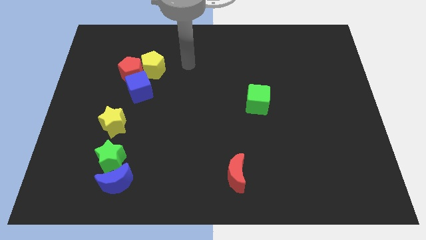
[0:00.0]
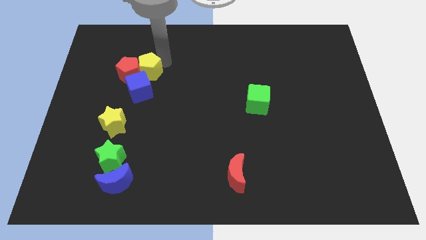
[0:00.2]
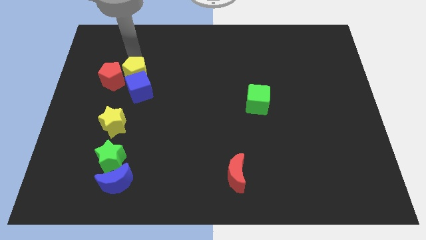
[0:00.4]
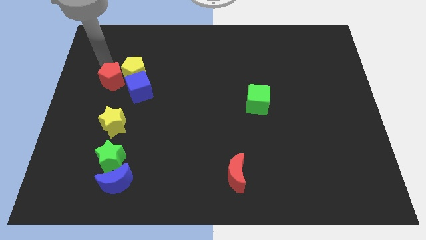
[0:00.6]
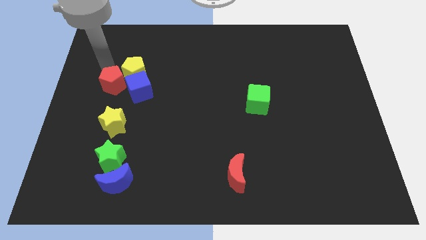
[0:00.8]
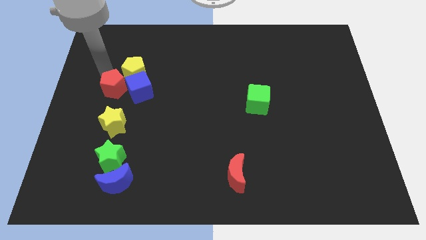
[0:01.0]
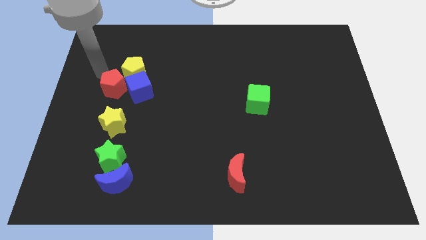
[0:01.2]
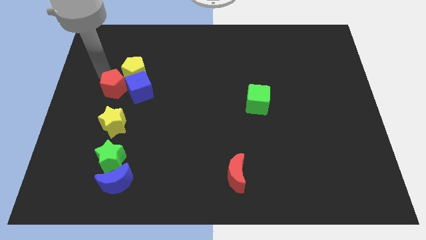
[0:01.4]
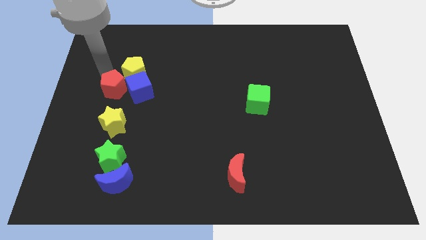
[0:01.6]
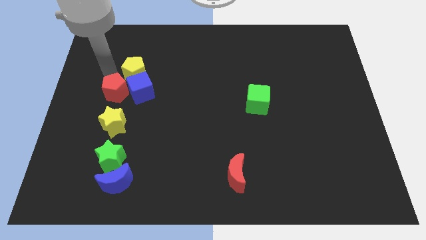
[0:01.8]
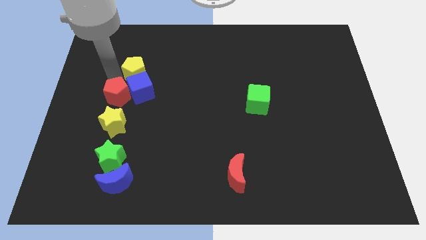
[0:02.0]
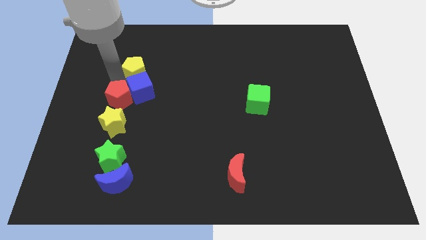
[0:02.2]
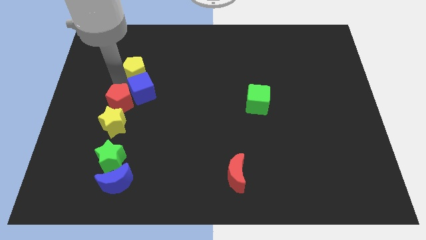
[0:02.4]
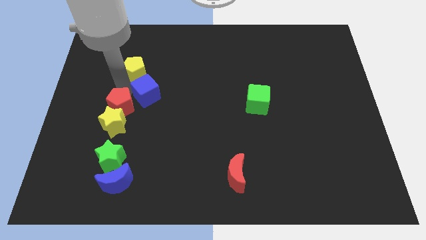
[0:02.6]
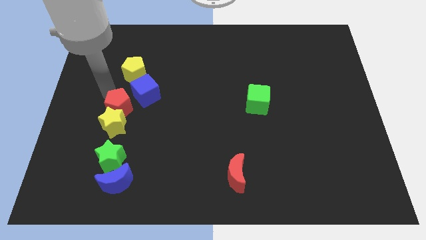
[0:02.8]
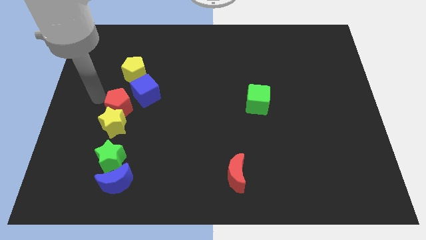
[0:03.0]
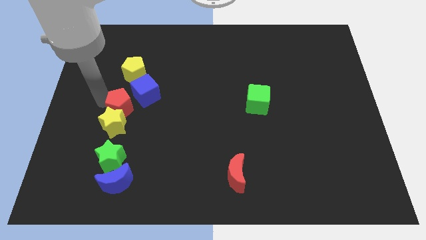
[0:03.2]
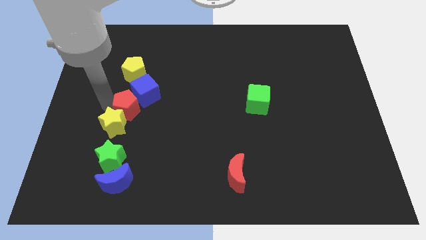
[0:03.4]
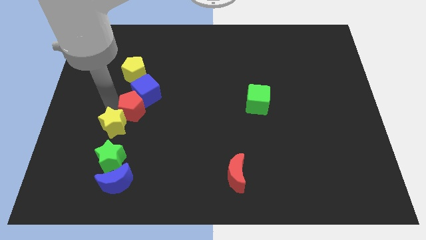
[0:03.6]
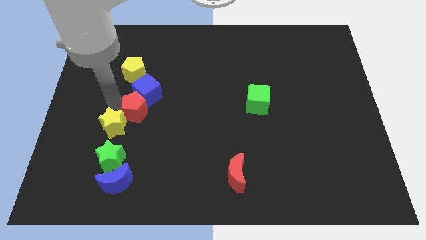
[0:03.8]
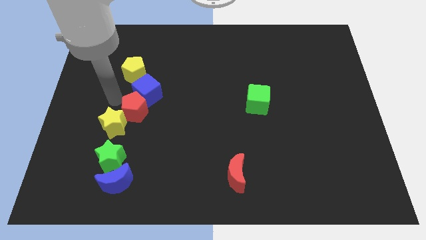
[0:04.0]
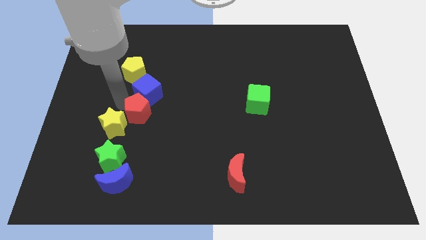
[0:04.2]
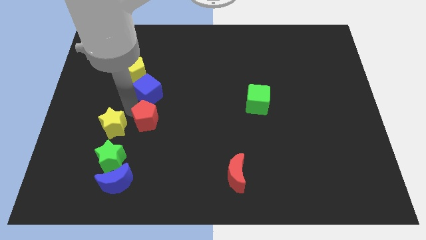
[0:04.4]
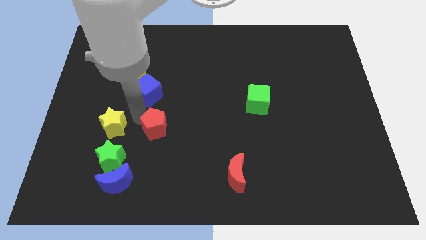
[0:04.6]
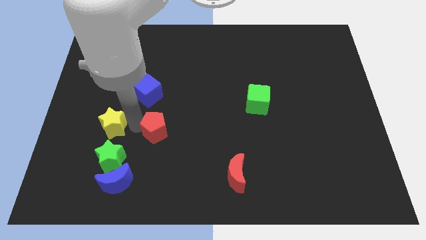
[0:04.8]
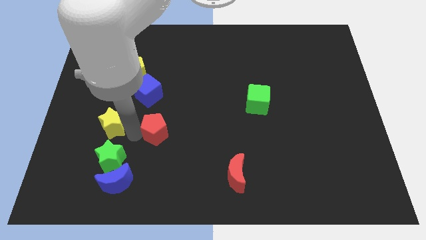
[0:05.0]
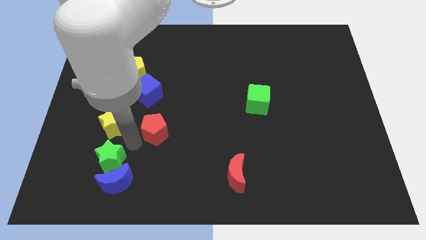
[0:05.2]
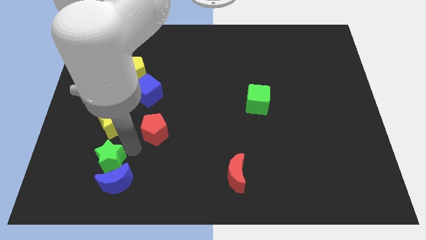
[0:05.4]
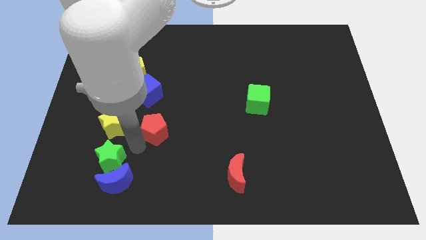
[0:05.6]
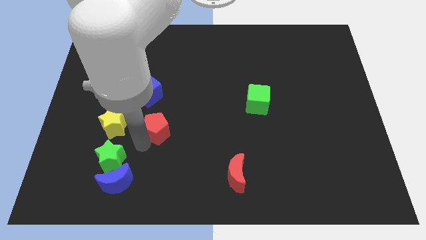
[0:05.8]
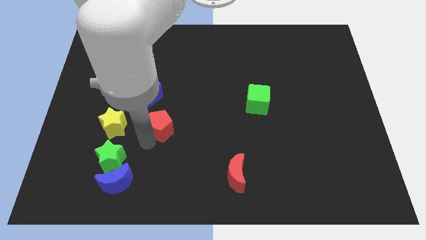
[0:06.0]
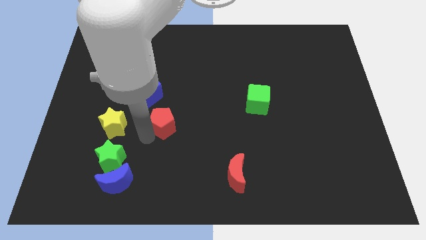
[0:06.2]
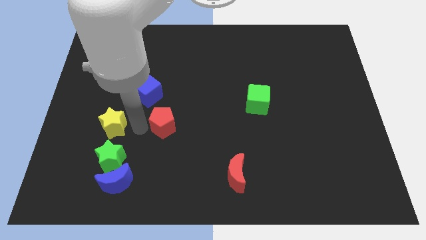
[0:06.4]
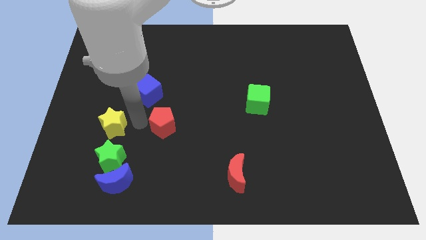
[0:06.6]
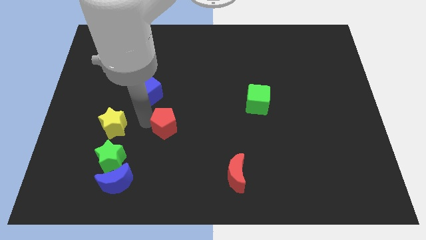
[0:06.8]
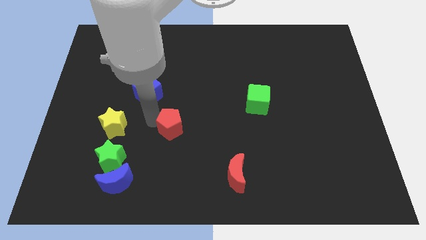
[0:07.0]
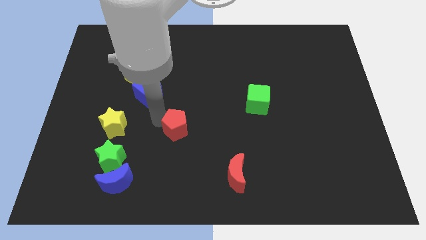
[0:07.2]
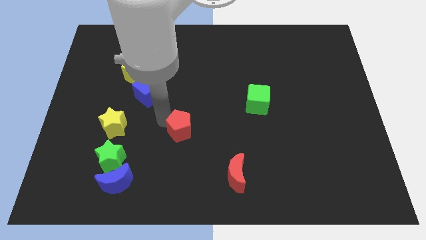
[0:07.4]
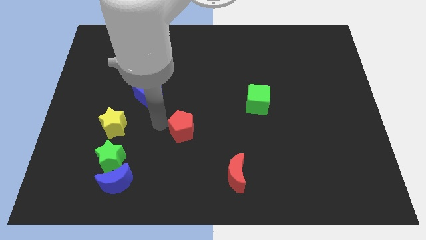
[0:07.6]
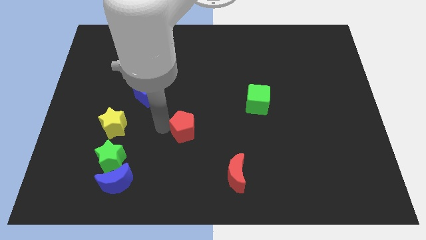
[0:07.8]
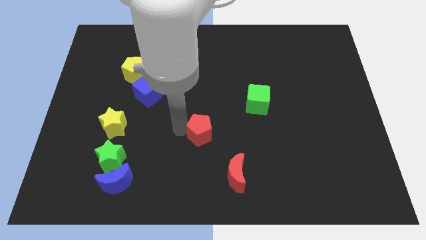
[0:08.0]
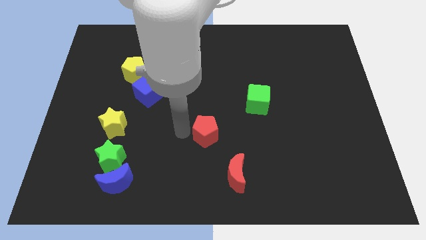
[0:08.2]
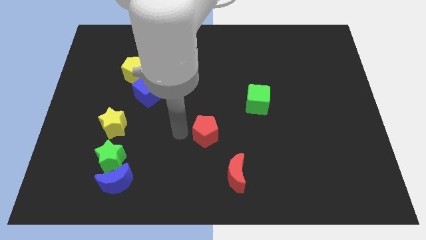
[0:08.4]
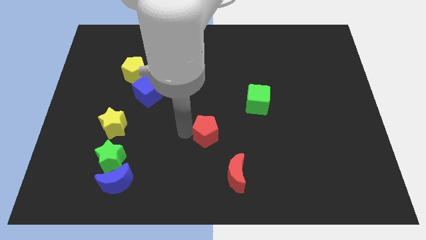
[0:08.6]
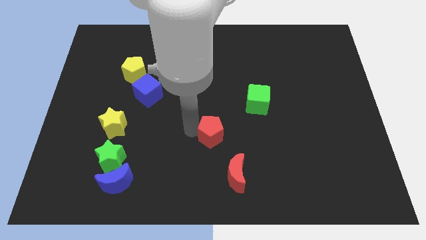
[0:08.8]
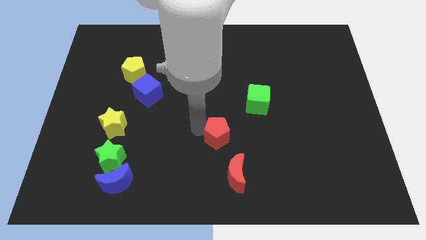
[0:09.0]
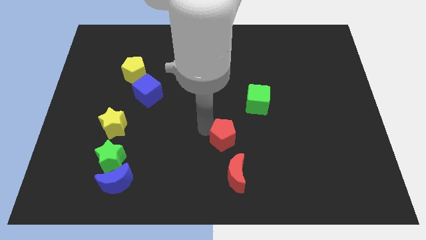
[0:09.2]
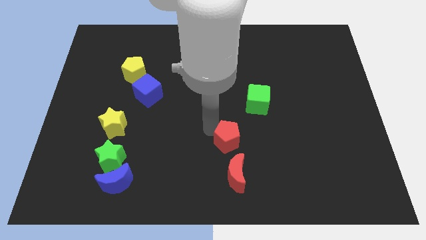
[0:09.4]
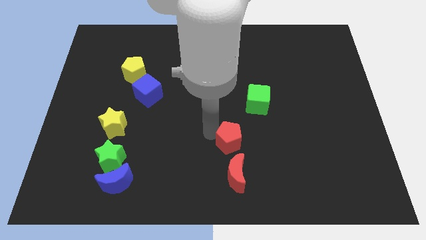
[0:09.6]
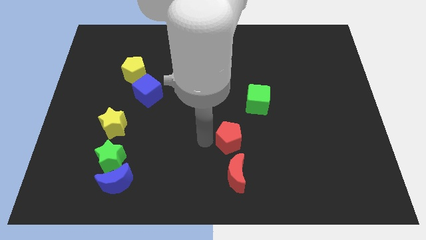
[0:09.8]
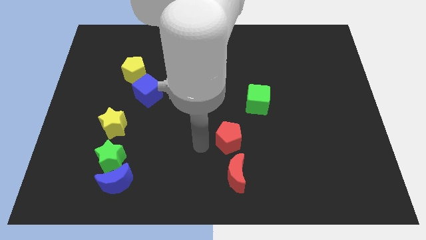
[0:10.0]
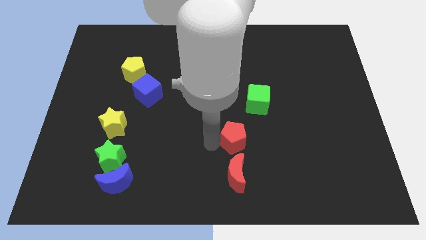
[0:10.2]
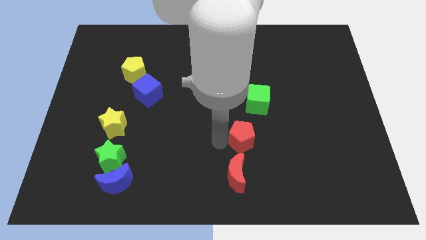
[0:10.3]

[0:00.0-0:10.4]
move the red pentagon to the bottom side of the green cube

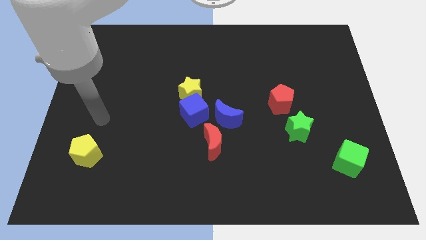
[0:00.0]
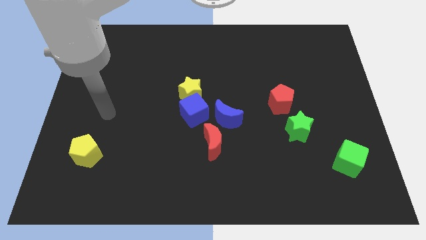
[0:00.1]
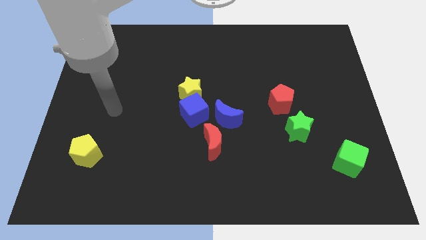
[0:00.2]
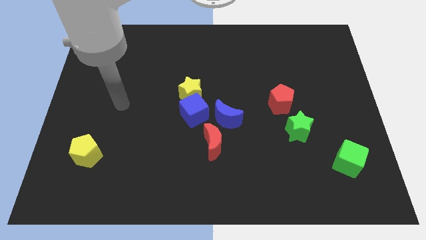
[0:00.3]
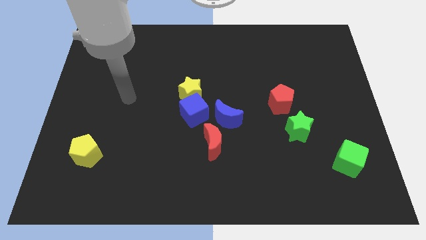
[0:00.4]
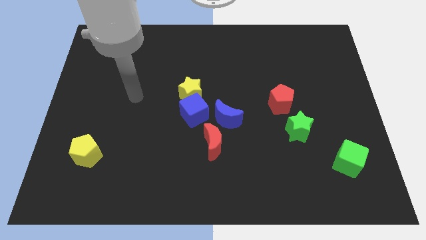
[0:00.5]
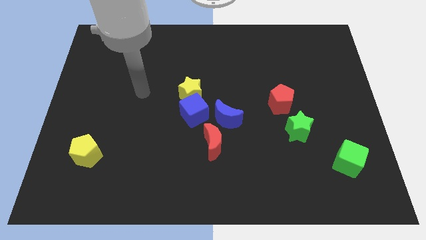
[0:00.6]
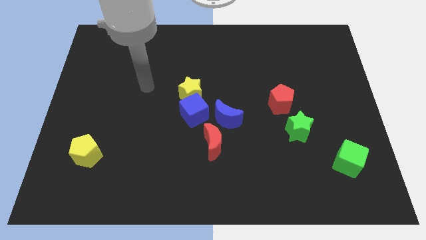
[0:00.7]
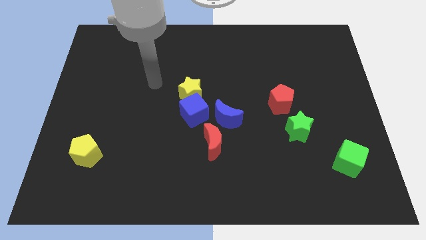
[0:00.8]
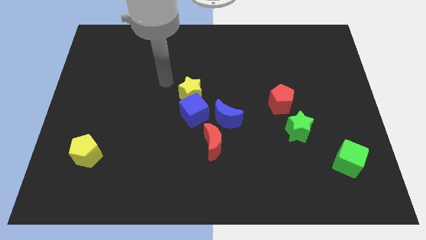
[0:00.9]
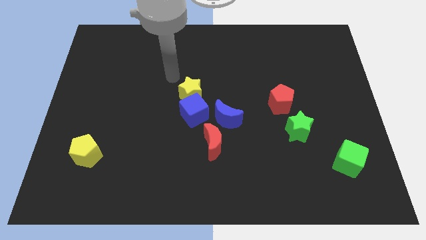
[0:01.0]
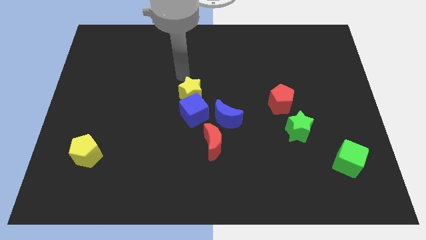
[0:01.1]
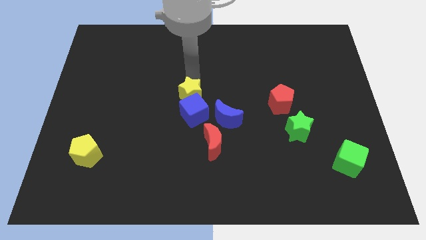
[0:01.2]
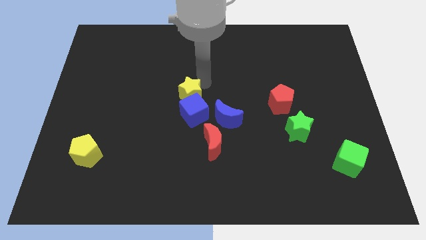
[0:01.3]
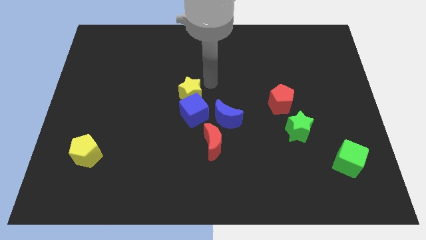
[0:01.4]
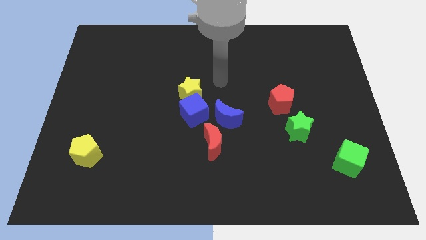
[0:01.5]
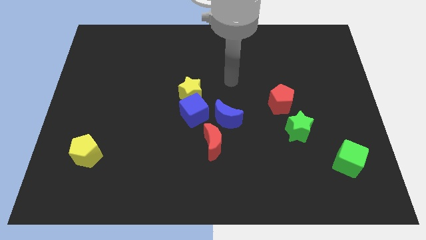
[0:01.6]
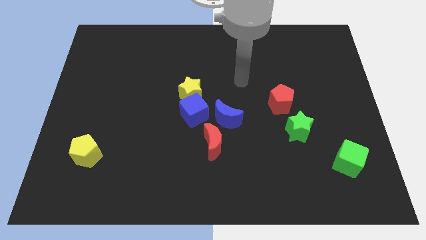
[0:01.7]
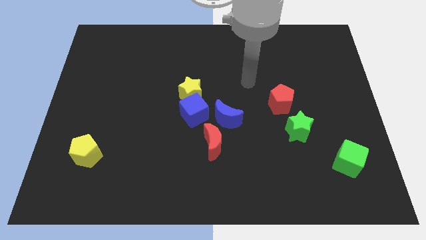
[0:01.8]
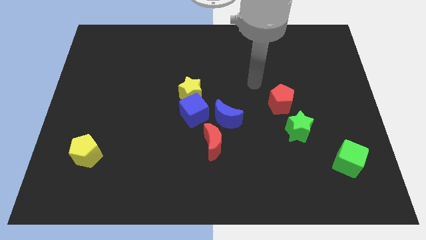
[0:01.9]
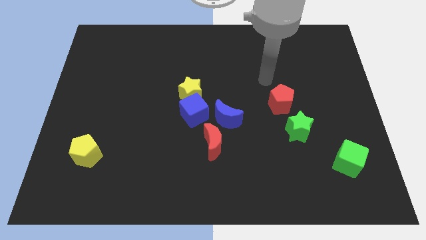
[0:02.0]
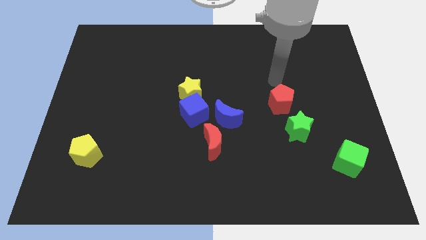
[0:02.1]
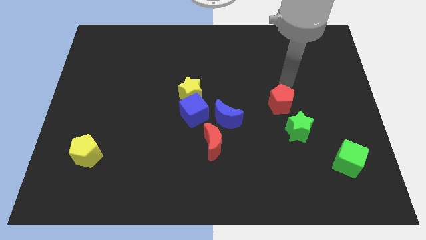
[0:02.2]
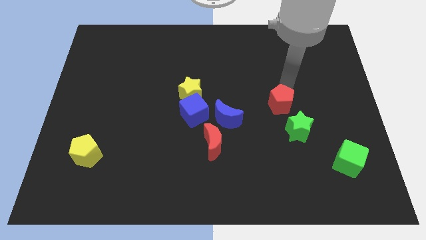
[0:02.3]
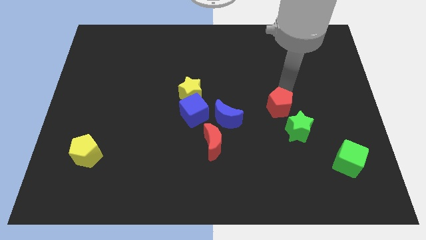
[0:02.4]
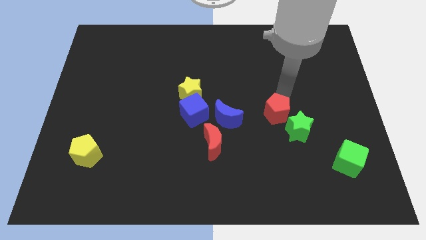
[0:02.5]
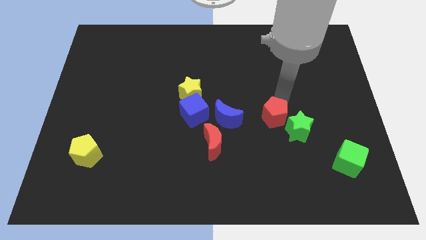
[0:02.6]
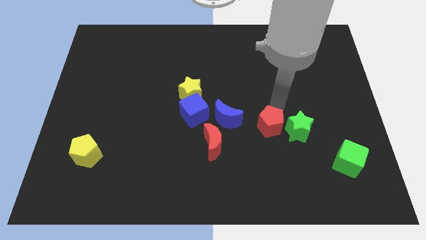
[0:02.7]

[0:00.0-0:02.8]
put the red pentagon to the bottom left of the green star
